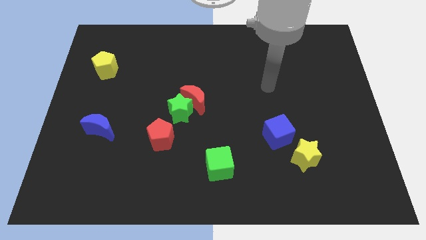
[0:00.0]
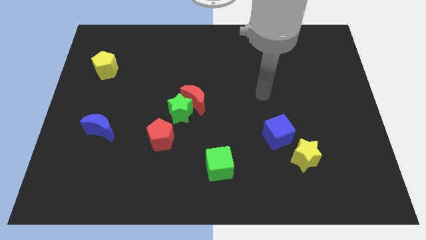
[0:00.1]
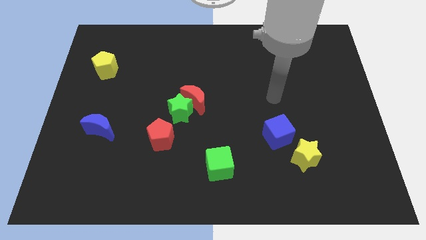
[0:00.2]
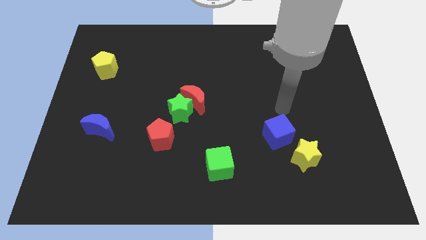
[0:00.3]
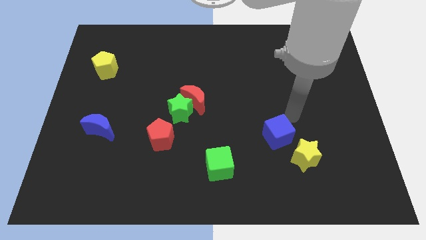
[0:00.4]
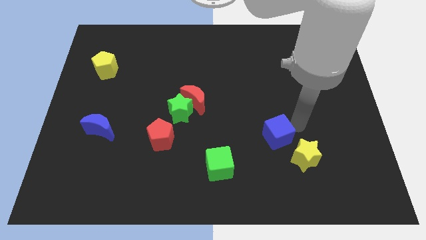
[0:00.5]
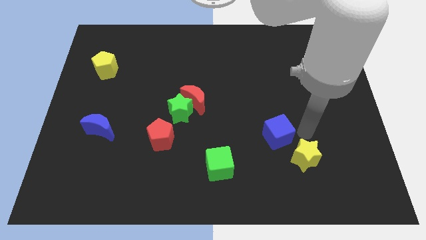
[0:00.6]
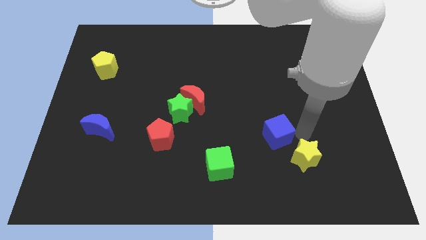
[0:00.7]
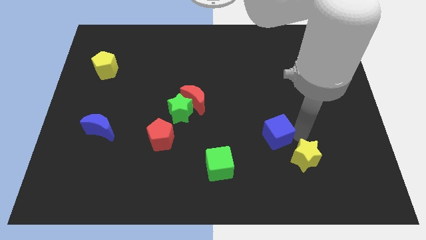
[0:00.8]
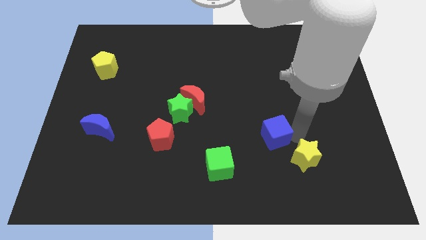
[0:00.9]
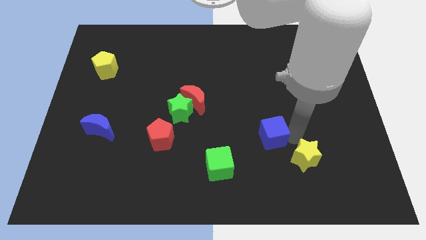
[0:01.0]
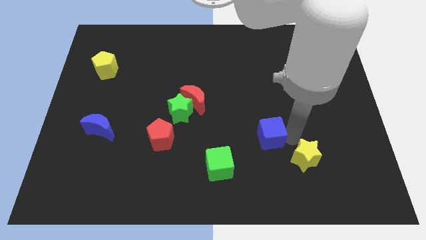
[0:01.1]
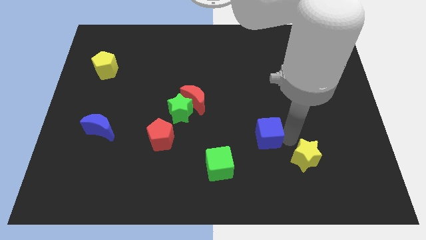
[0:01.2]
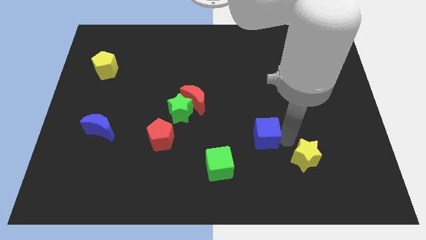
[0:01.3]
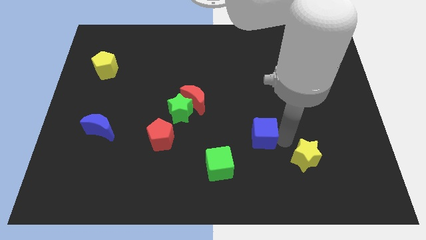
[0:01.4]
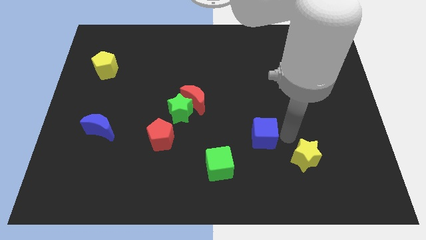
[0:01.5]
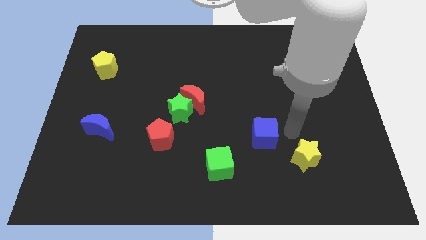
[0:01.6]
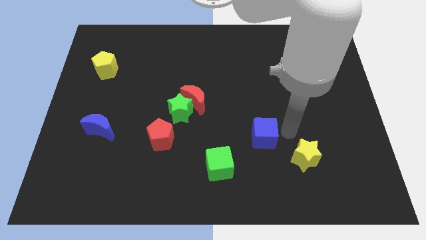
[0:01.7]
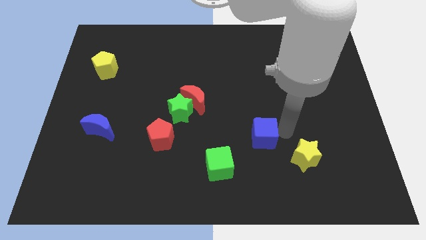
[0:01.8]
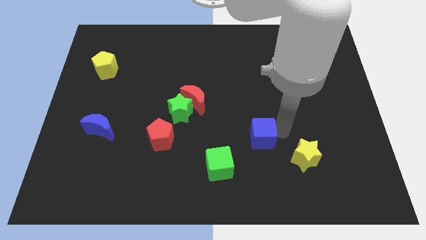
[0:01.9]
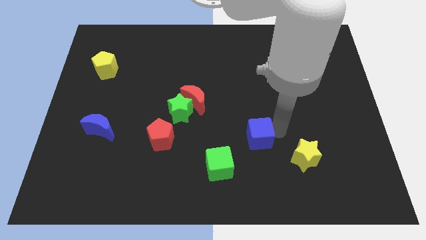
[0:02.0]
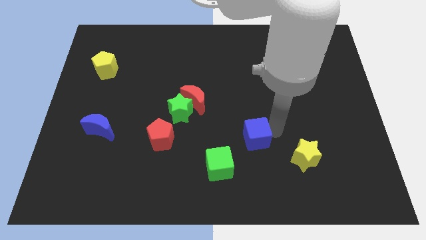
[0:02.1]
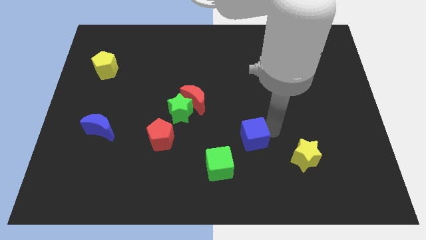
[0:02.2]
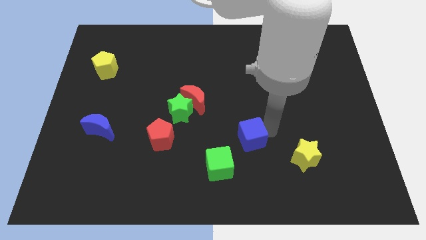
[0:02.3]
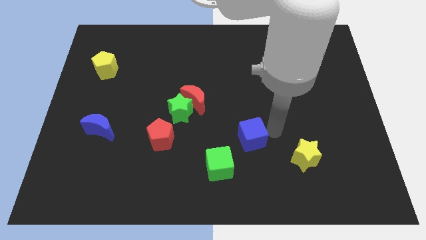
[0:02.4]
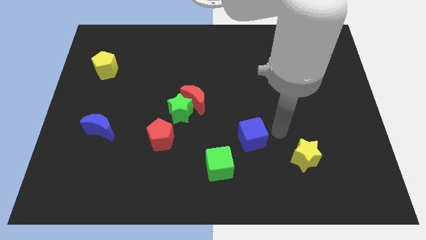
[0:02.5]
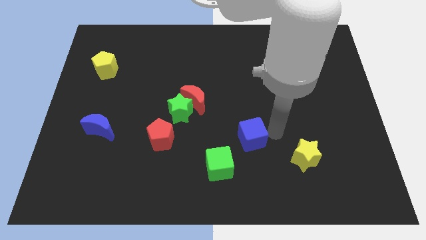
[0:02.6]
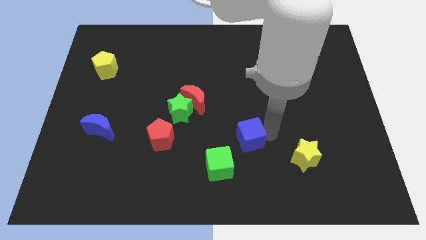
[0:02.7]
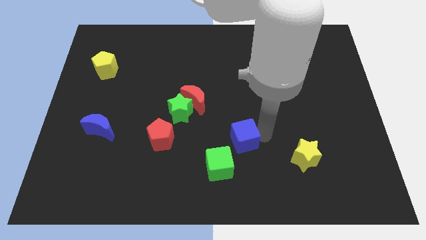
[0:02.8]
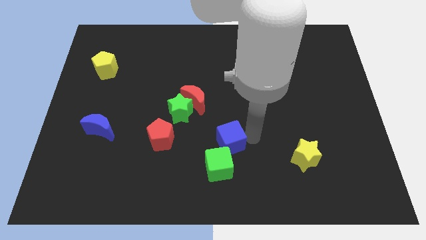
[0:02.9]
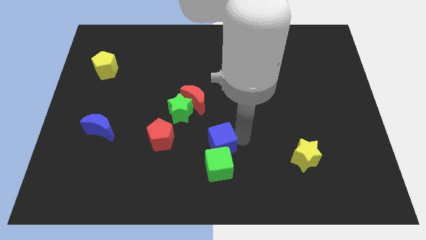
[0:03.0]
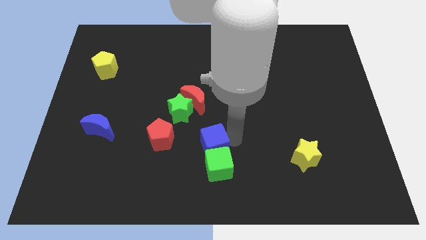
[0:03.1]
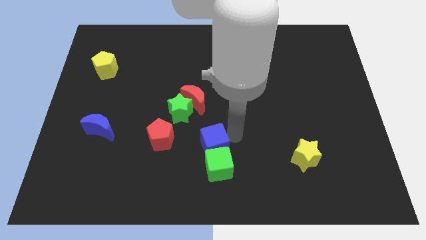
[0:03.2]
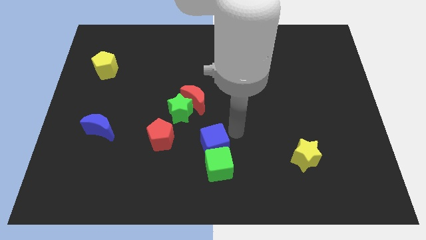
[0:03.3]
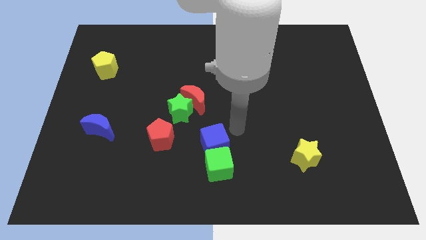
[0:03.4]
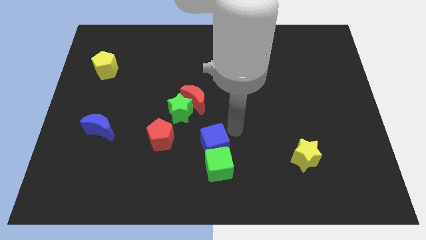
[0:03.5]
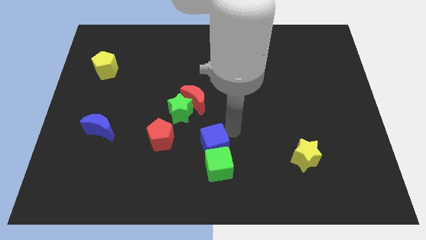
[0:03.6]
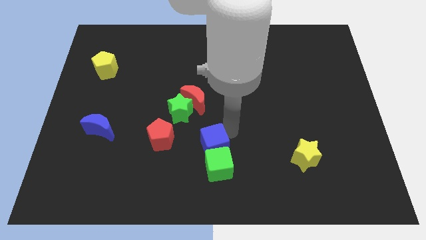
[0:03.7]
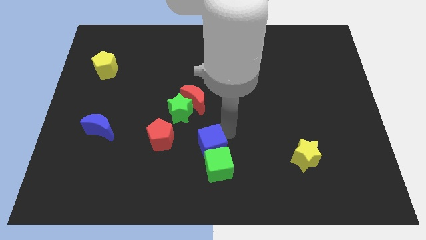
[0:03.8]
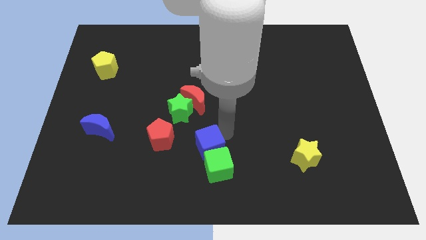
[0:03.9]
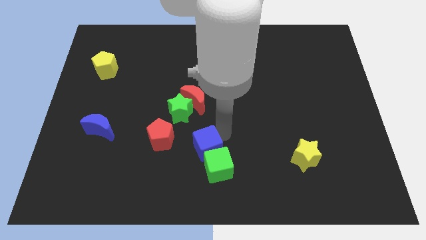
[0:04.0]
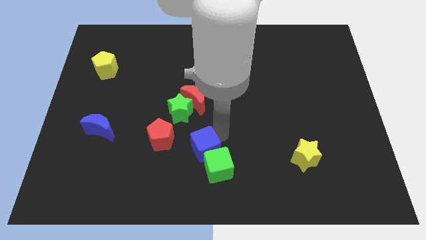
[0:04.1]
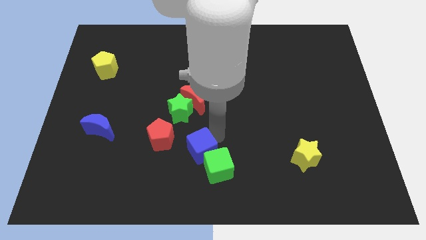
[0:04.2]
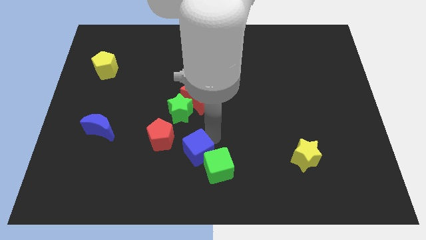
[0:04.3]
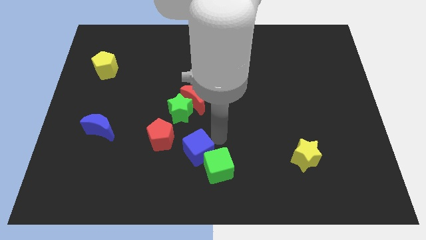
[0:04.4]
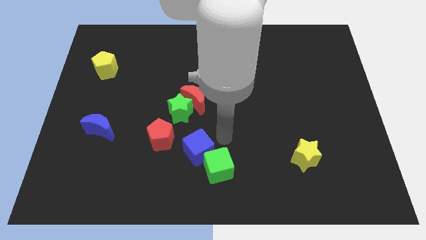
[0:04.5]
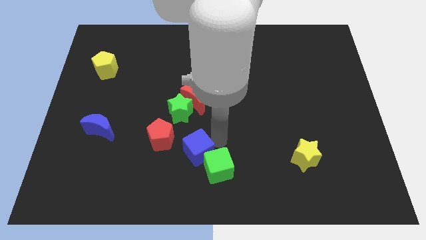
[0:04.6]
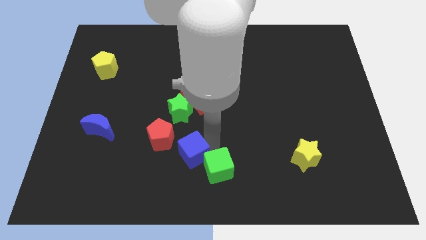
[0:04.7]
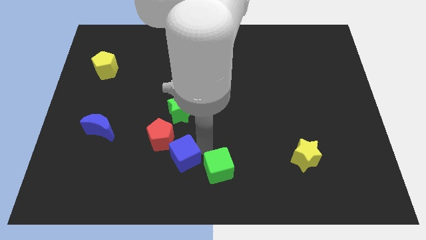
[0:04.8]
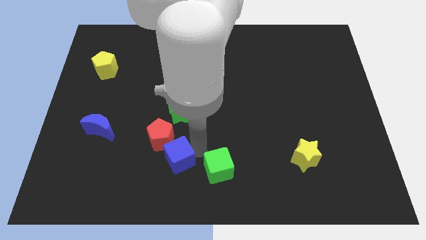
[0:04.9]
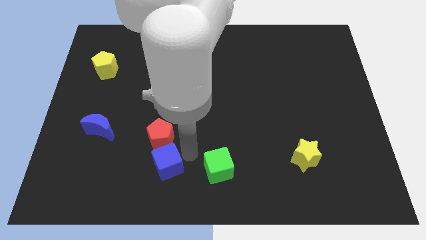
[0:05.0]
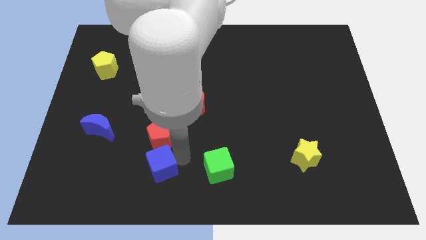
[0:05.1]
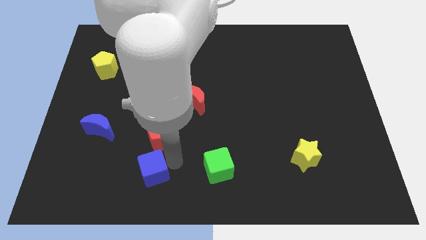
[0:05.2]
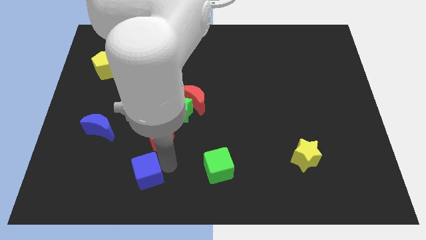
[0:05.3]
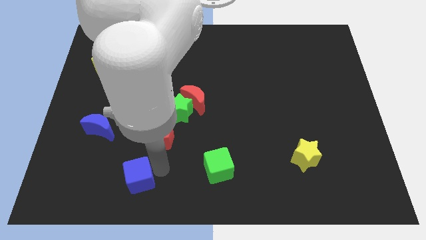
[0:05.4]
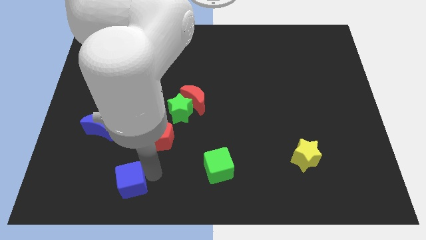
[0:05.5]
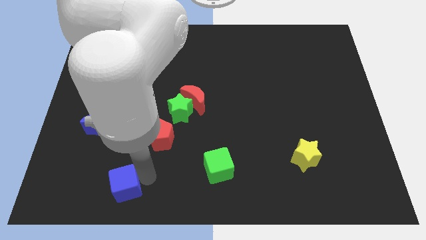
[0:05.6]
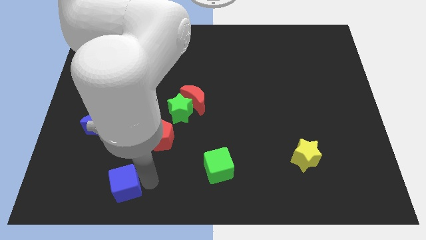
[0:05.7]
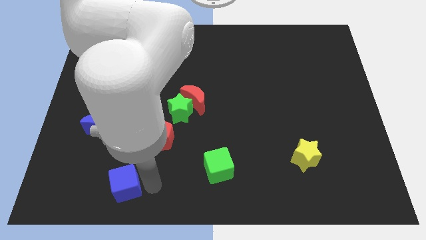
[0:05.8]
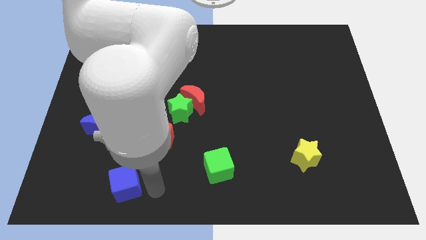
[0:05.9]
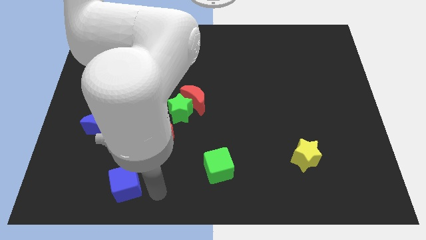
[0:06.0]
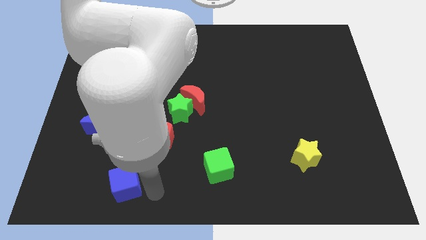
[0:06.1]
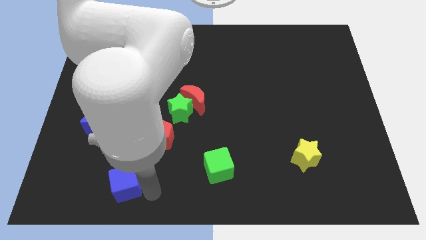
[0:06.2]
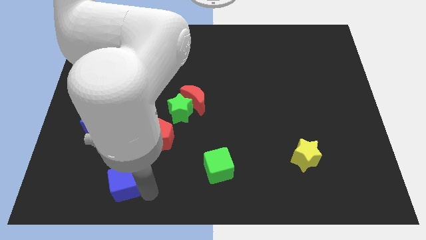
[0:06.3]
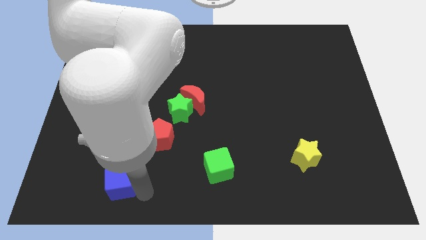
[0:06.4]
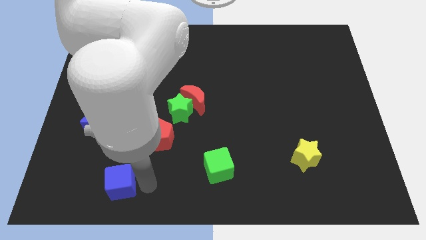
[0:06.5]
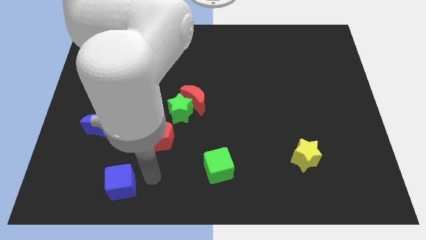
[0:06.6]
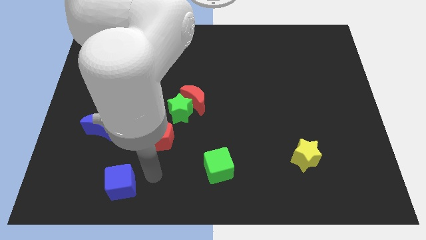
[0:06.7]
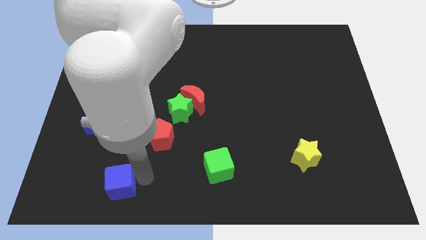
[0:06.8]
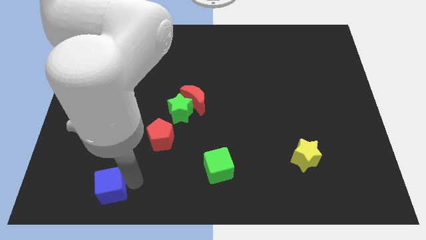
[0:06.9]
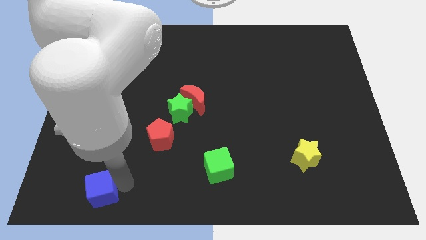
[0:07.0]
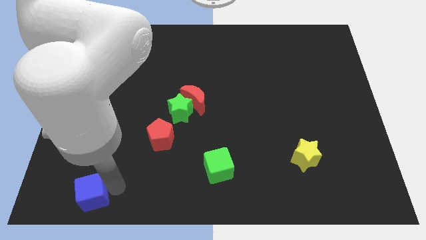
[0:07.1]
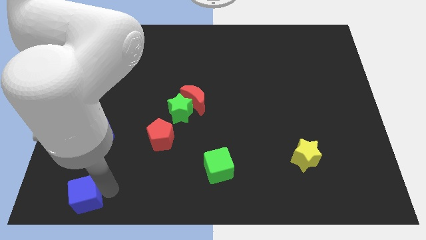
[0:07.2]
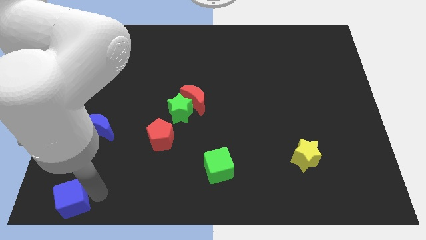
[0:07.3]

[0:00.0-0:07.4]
slide the blue cube to the bottom left of the board
